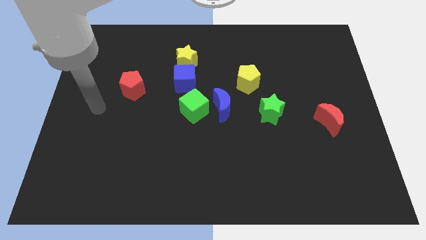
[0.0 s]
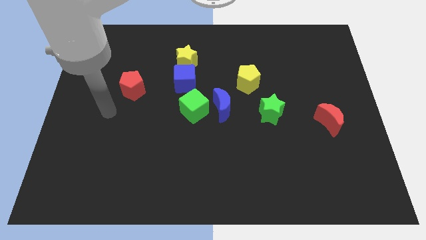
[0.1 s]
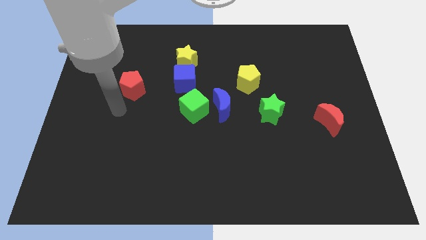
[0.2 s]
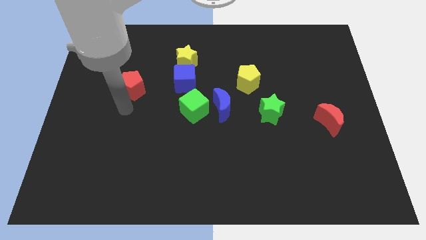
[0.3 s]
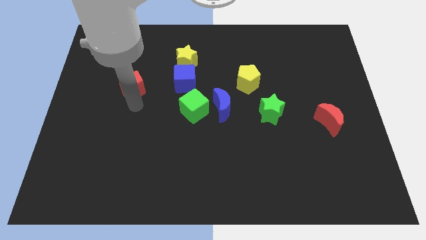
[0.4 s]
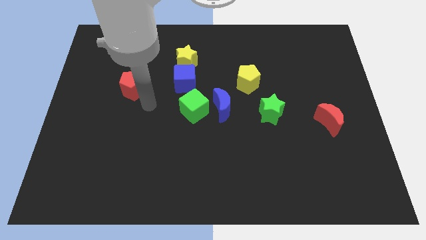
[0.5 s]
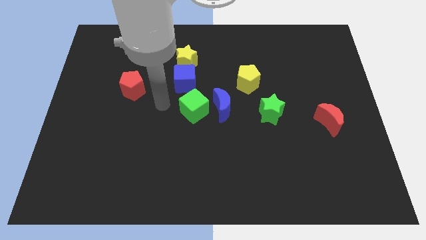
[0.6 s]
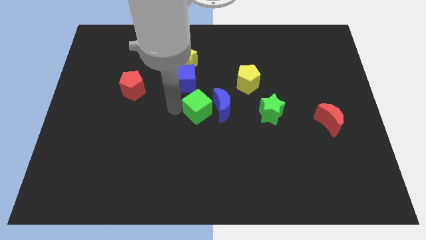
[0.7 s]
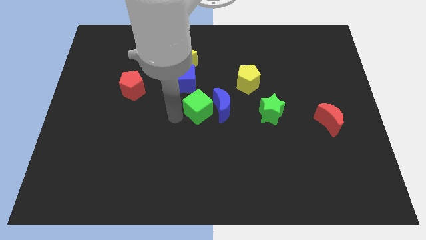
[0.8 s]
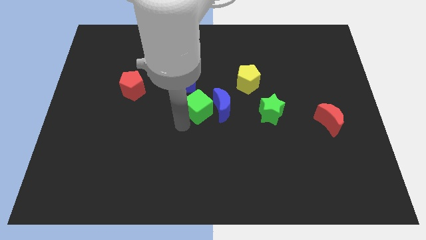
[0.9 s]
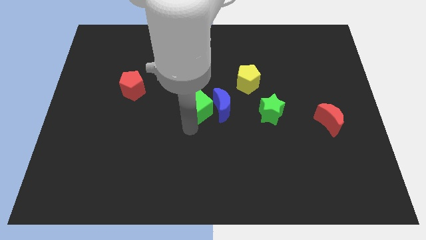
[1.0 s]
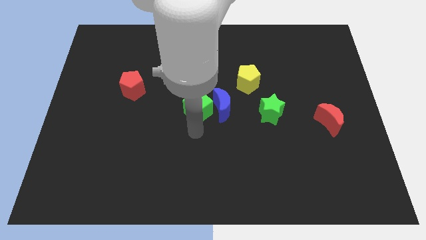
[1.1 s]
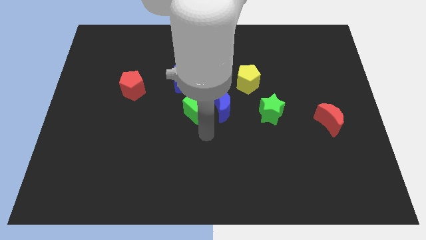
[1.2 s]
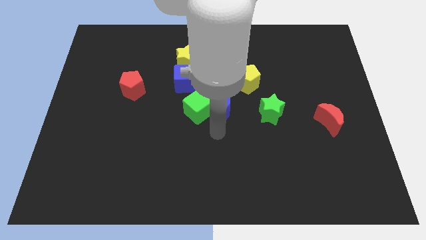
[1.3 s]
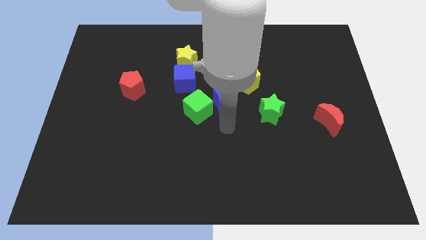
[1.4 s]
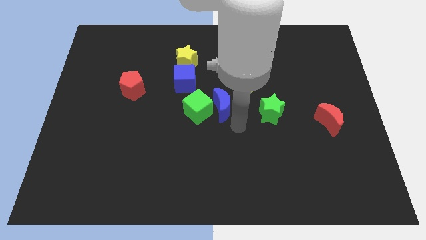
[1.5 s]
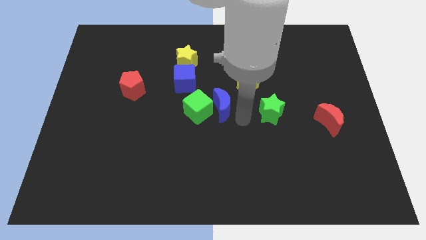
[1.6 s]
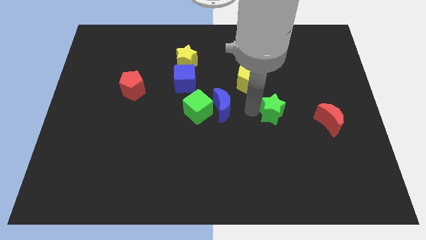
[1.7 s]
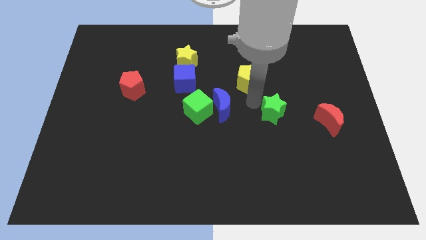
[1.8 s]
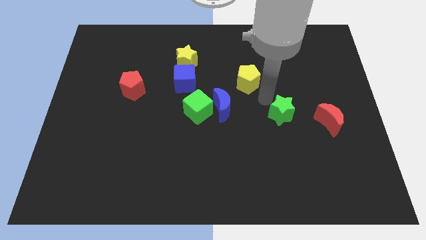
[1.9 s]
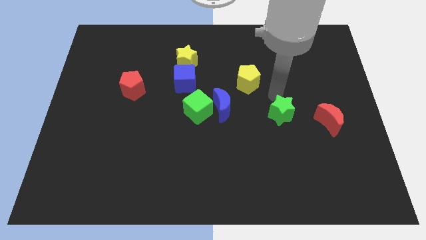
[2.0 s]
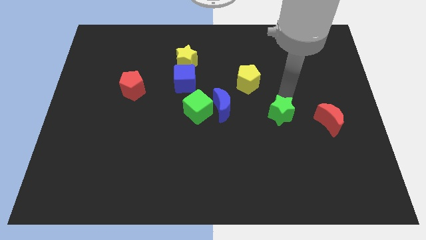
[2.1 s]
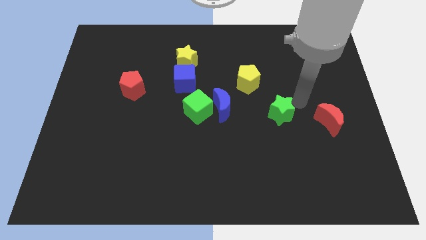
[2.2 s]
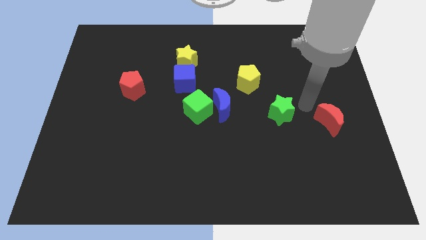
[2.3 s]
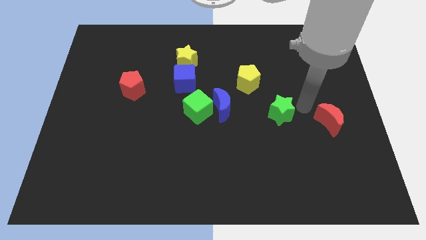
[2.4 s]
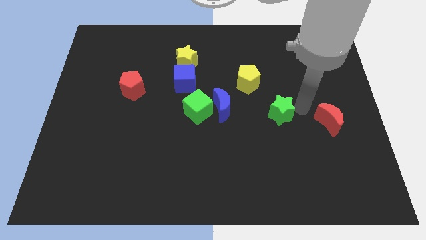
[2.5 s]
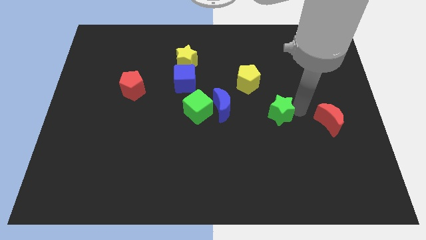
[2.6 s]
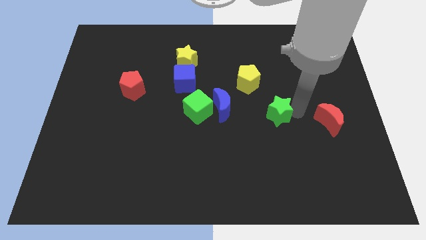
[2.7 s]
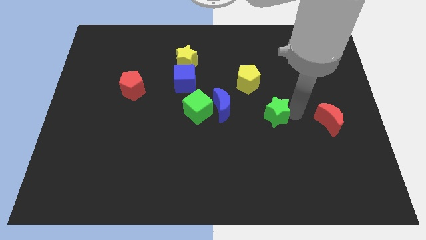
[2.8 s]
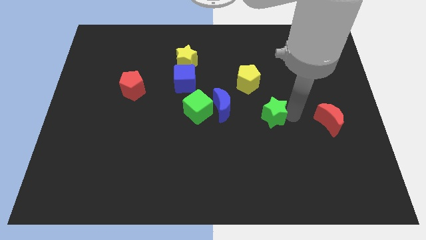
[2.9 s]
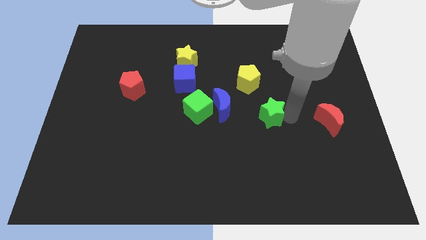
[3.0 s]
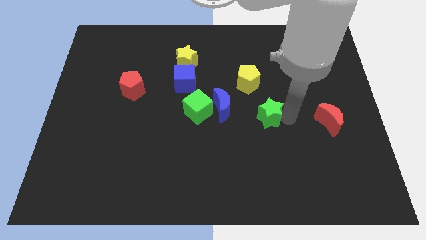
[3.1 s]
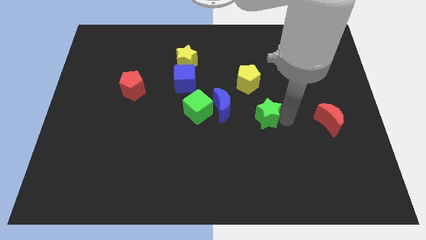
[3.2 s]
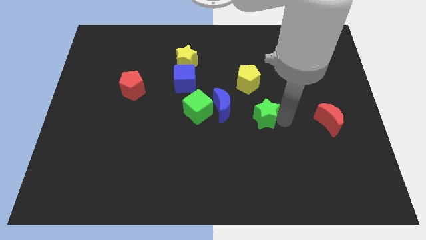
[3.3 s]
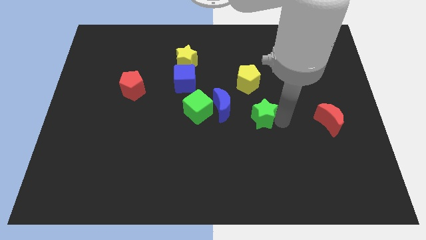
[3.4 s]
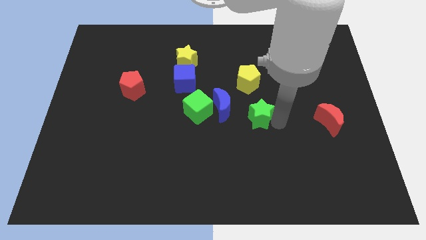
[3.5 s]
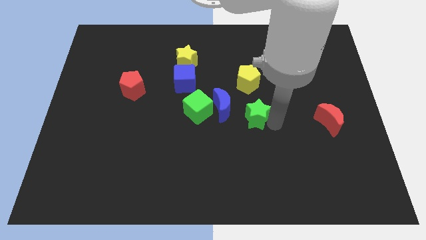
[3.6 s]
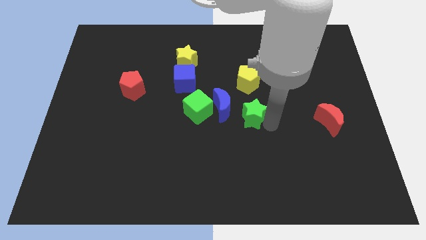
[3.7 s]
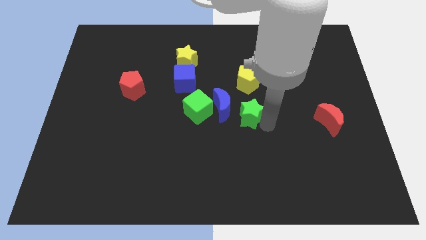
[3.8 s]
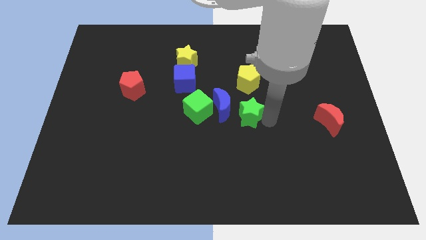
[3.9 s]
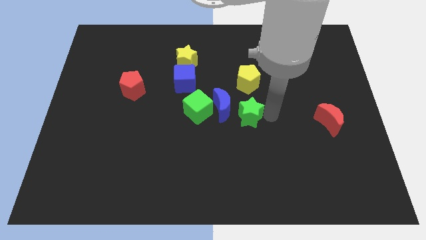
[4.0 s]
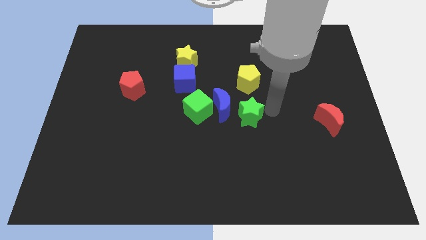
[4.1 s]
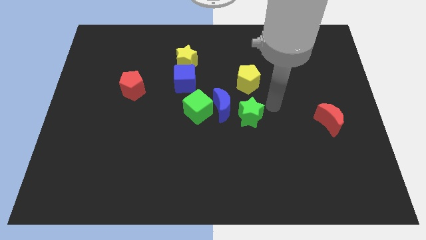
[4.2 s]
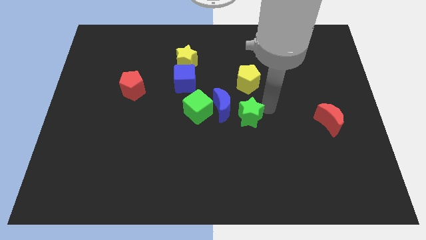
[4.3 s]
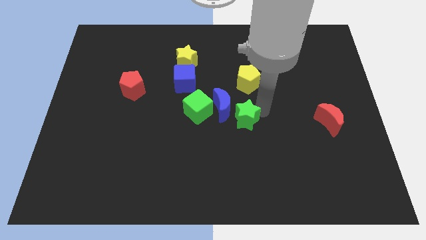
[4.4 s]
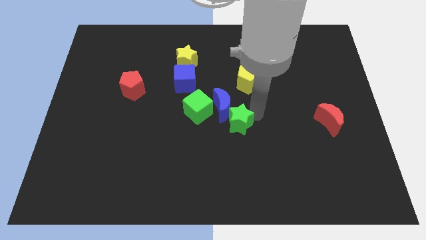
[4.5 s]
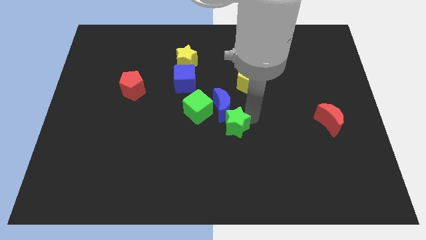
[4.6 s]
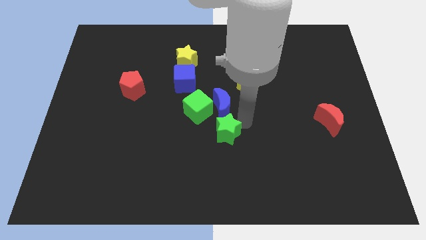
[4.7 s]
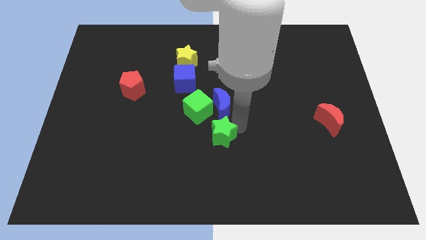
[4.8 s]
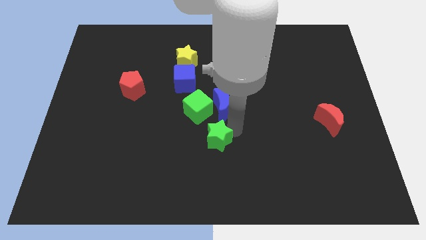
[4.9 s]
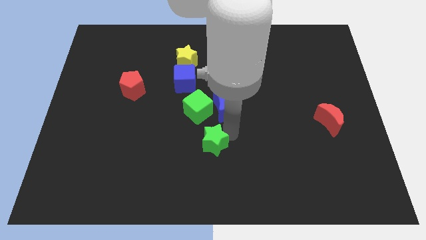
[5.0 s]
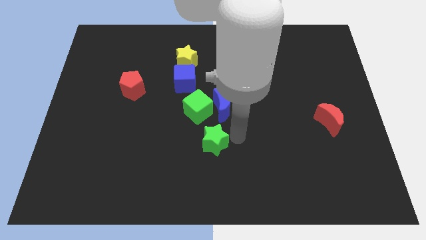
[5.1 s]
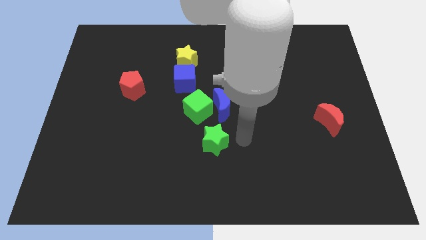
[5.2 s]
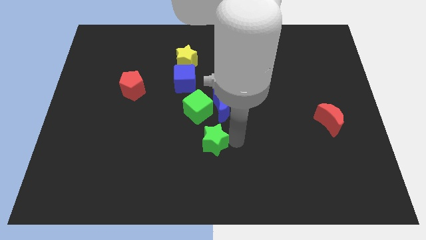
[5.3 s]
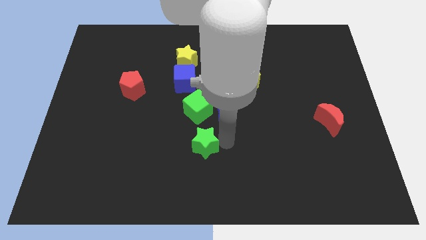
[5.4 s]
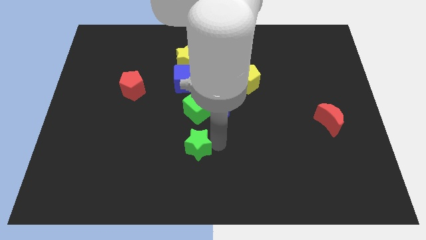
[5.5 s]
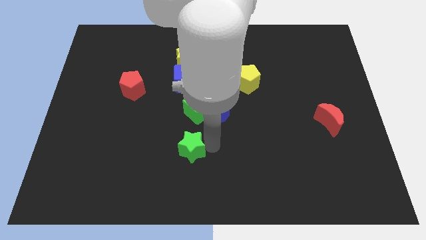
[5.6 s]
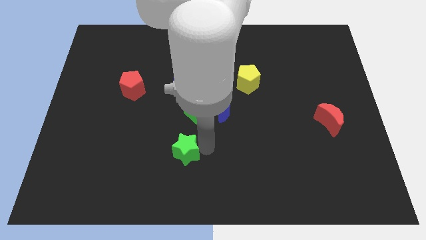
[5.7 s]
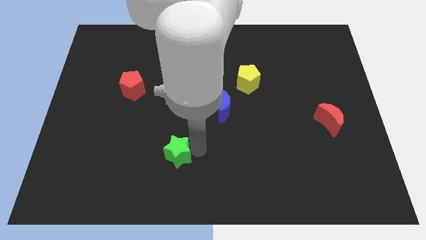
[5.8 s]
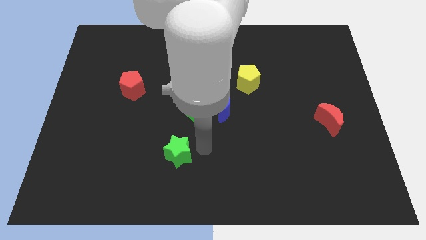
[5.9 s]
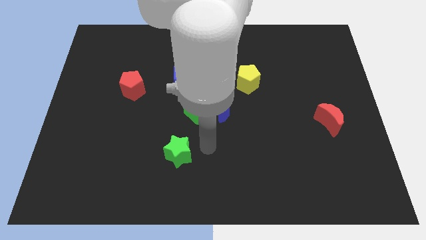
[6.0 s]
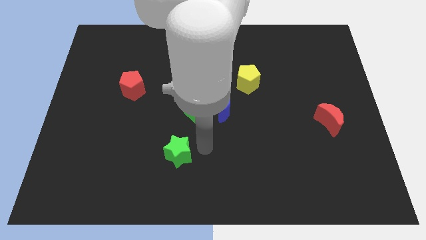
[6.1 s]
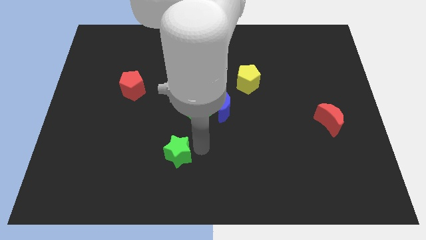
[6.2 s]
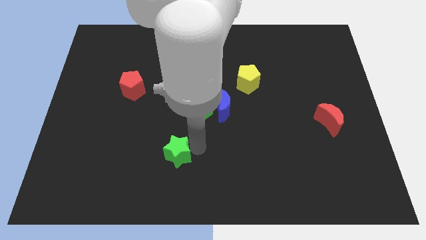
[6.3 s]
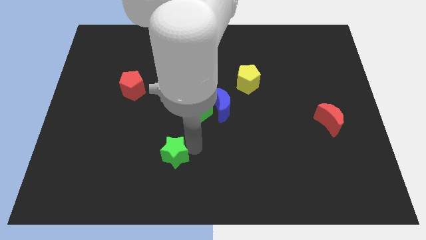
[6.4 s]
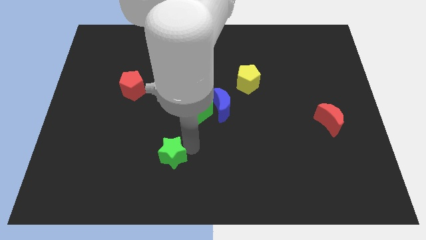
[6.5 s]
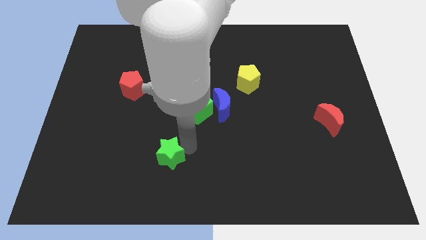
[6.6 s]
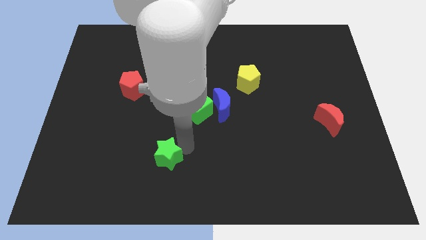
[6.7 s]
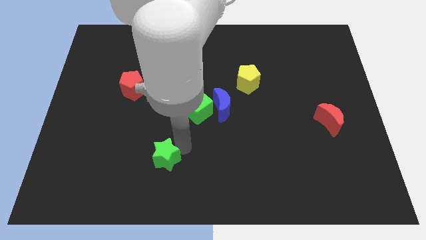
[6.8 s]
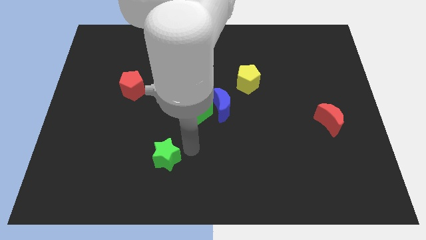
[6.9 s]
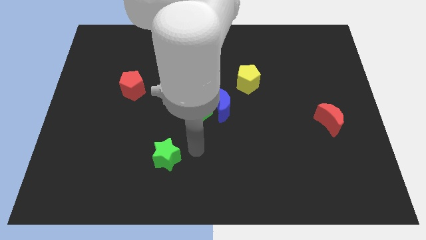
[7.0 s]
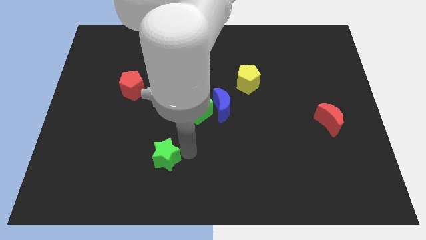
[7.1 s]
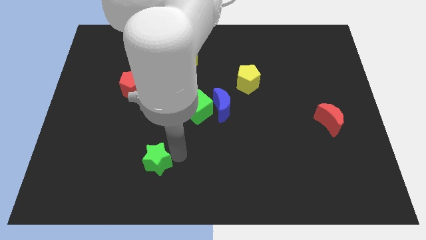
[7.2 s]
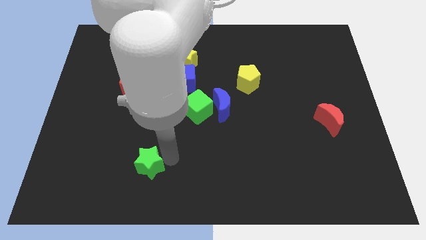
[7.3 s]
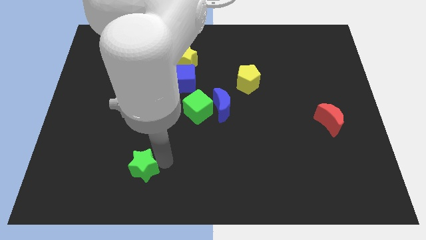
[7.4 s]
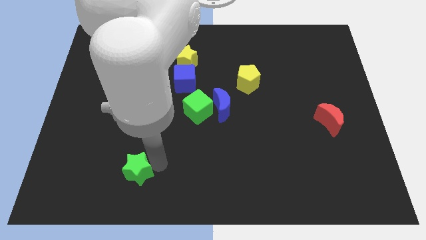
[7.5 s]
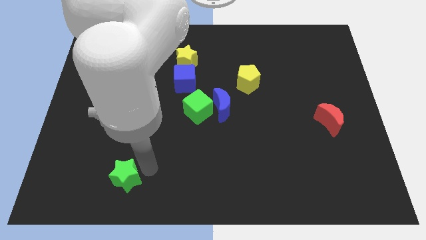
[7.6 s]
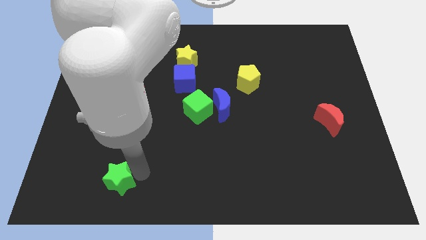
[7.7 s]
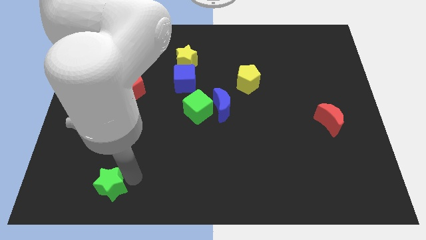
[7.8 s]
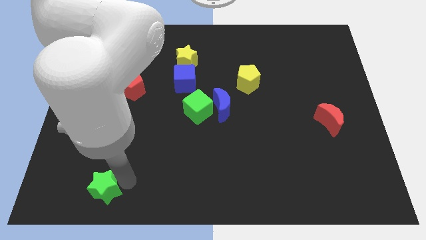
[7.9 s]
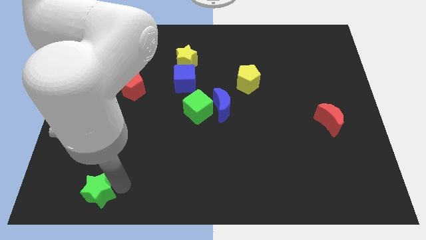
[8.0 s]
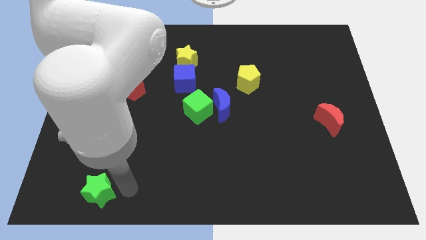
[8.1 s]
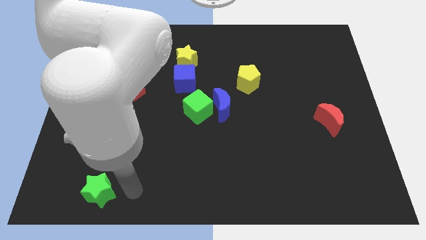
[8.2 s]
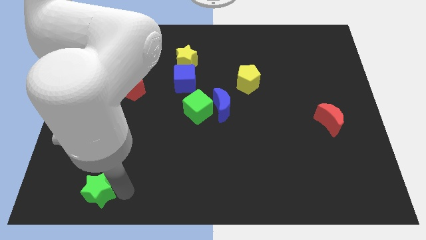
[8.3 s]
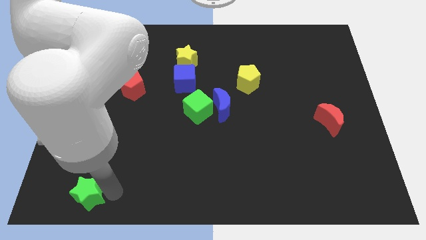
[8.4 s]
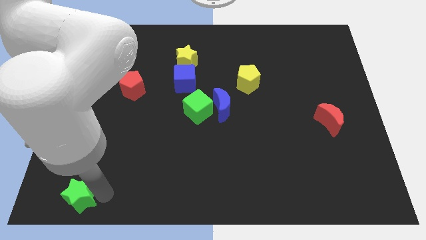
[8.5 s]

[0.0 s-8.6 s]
put the green star to the bottom left of the board
